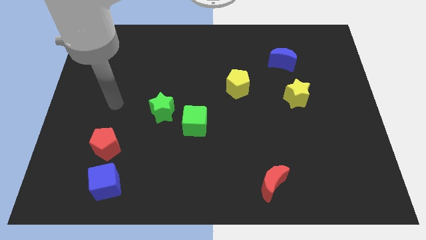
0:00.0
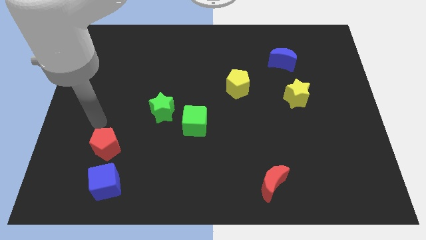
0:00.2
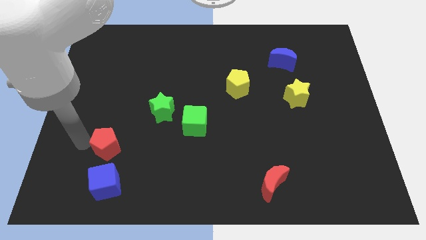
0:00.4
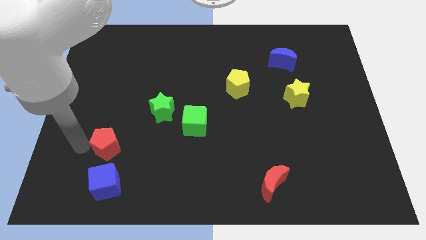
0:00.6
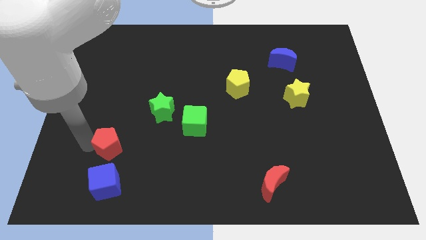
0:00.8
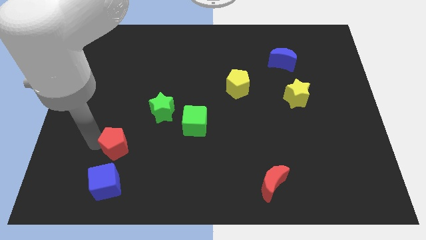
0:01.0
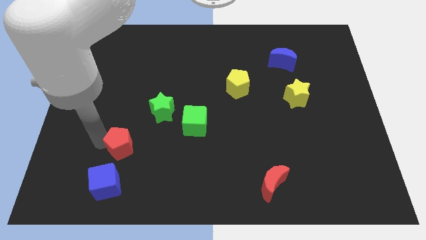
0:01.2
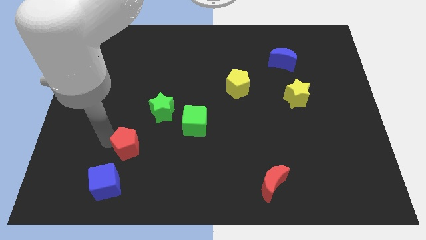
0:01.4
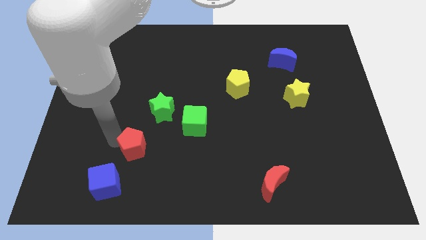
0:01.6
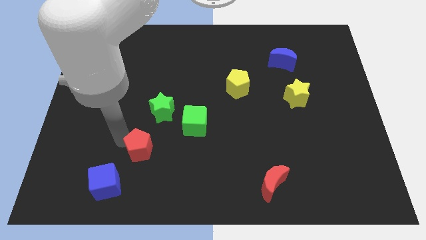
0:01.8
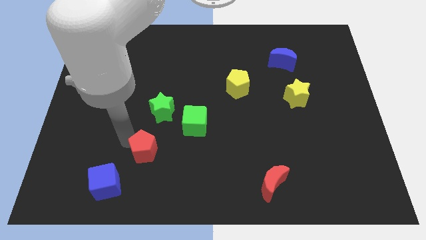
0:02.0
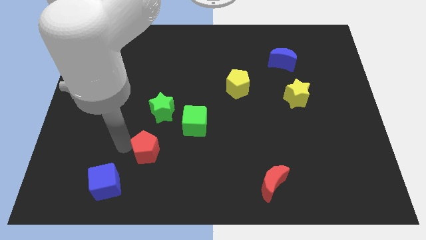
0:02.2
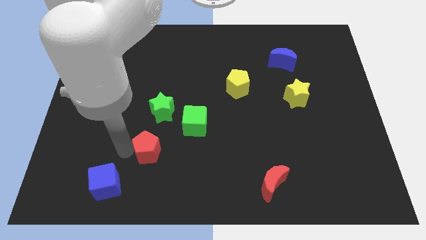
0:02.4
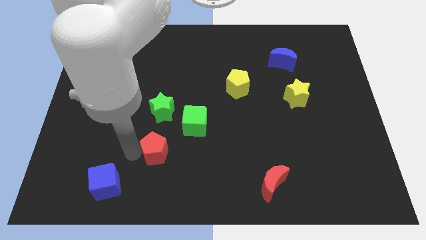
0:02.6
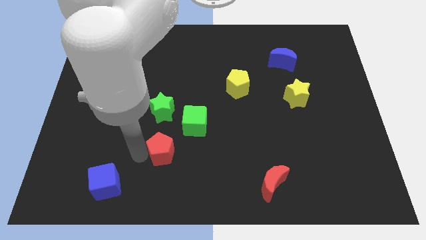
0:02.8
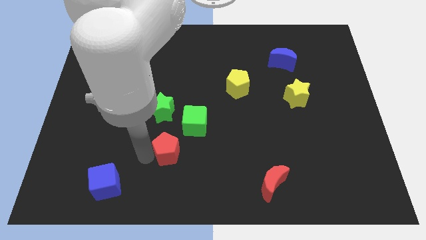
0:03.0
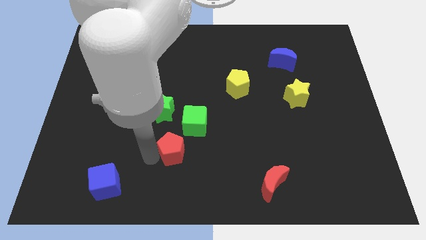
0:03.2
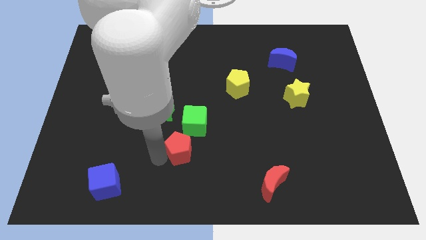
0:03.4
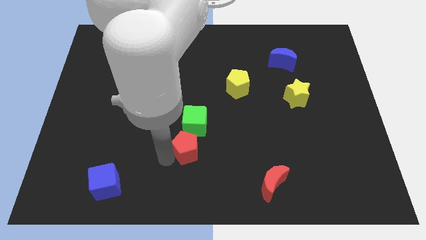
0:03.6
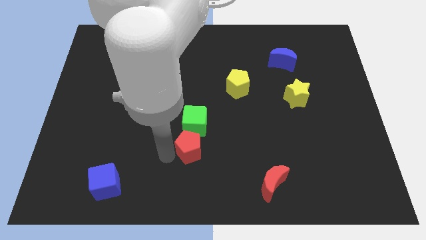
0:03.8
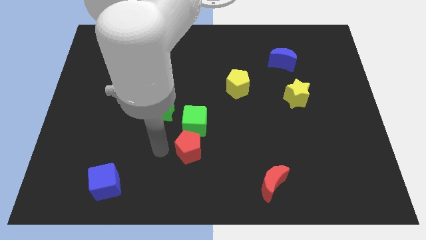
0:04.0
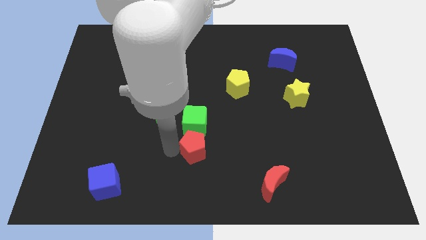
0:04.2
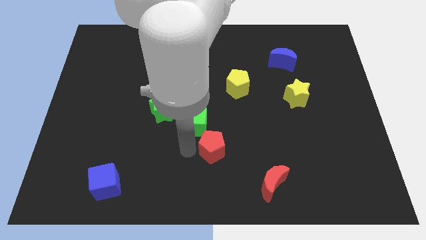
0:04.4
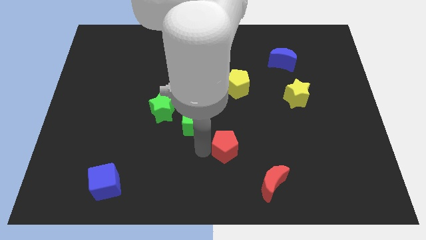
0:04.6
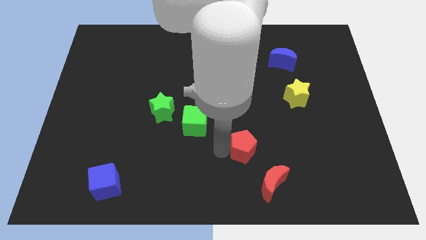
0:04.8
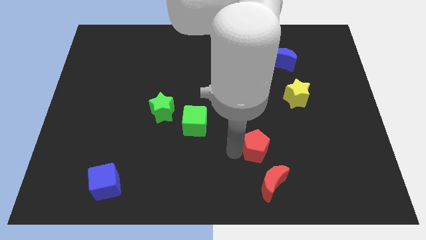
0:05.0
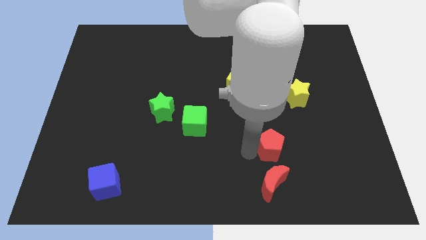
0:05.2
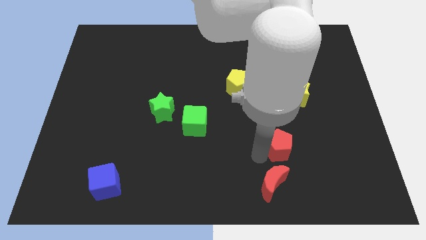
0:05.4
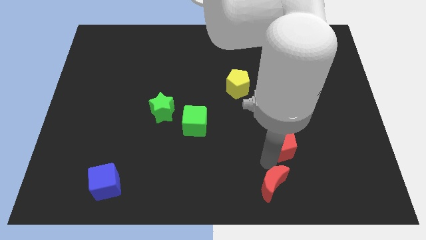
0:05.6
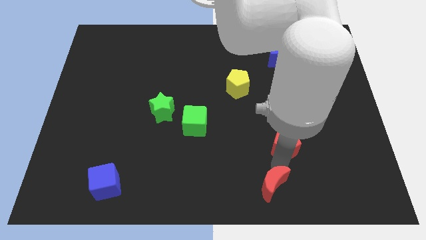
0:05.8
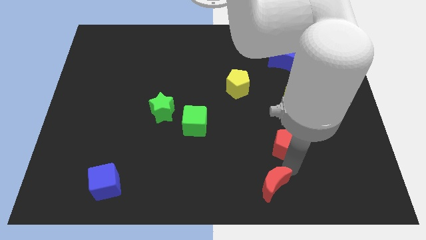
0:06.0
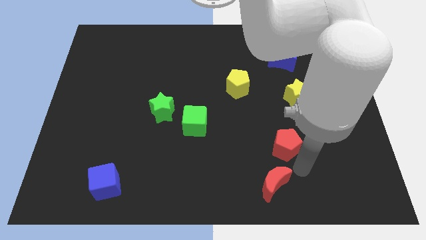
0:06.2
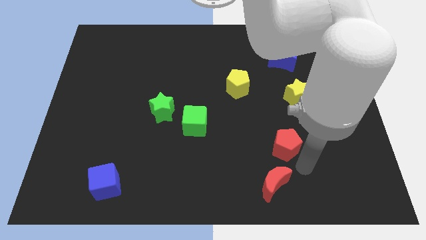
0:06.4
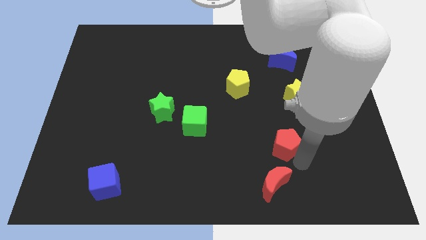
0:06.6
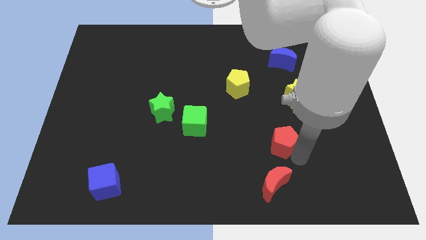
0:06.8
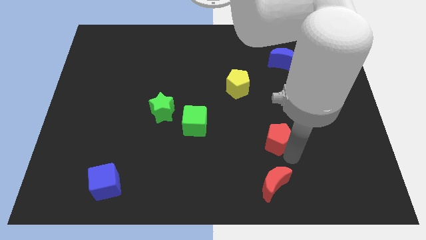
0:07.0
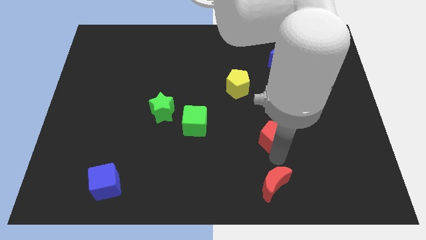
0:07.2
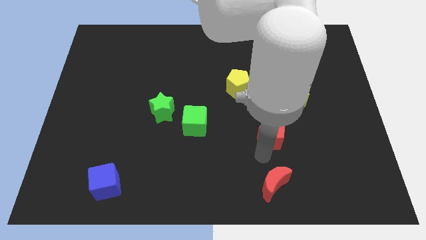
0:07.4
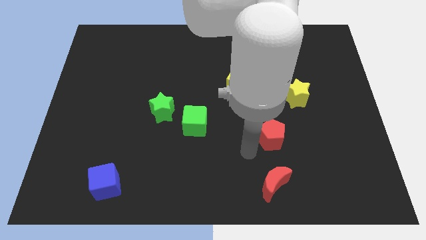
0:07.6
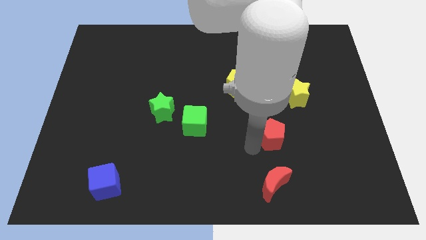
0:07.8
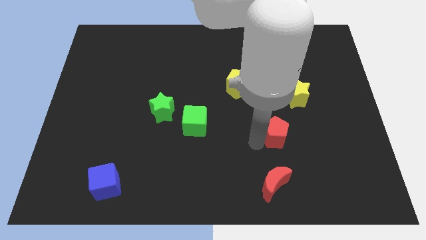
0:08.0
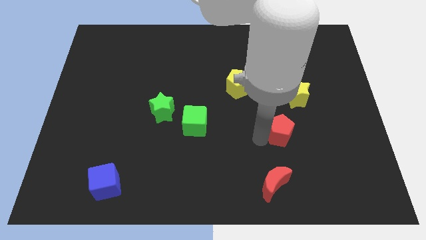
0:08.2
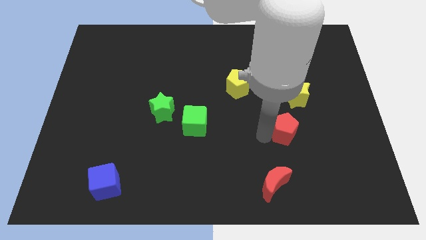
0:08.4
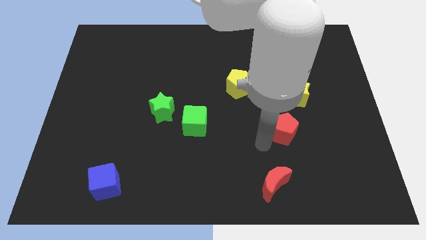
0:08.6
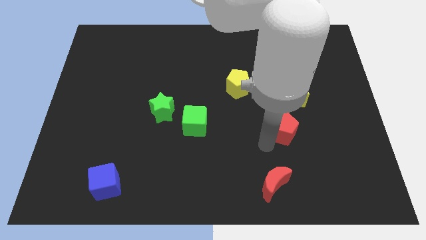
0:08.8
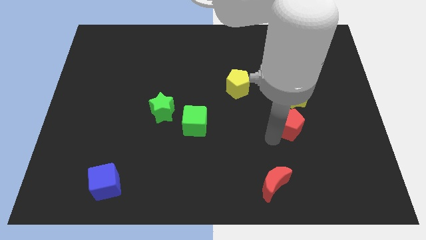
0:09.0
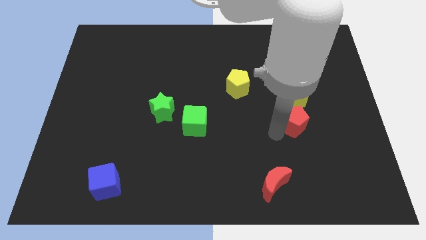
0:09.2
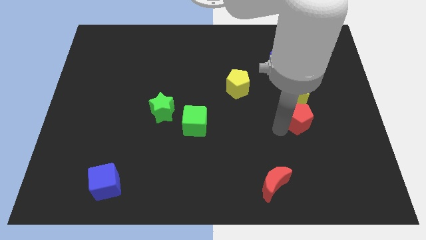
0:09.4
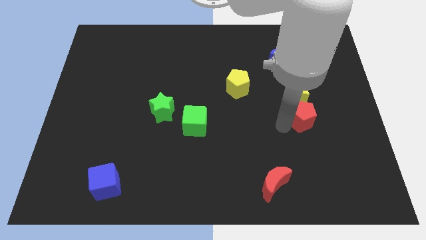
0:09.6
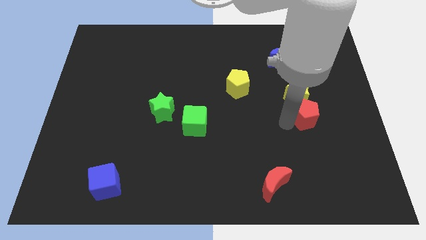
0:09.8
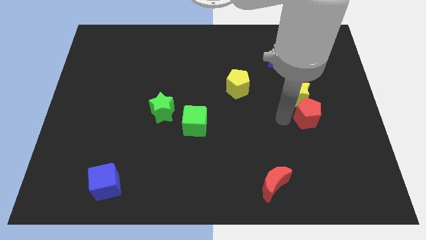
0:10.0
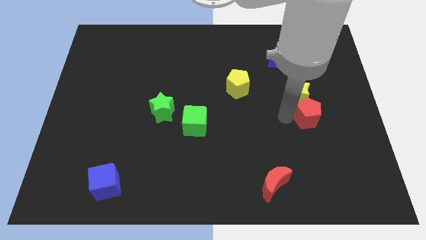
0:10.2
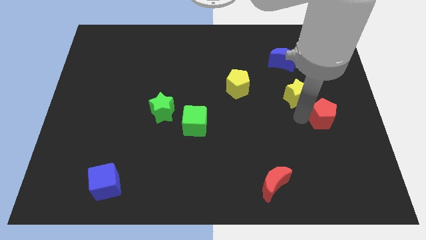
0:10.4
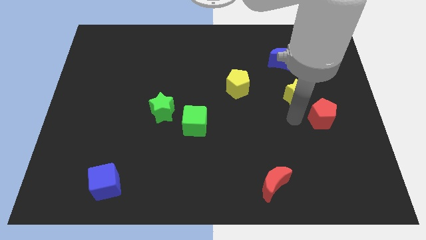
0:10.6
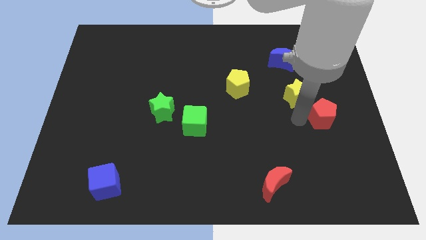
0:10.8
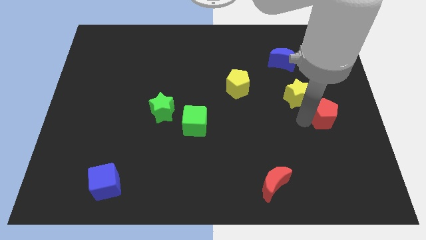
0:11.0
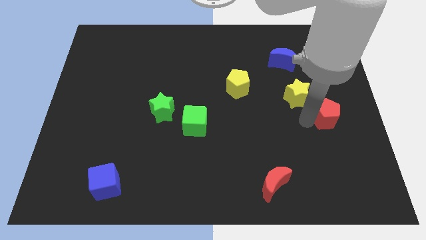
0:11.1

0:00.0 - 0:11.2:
move the red pentagon to the right side of the board

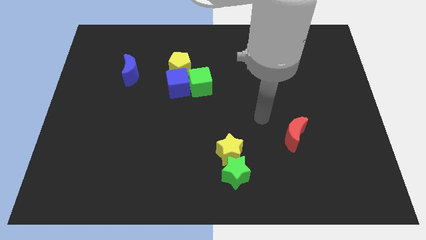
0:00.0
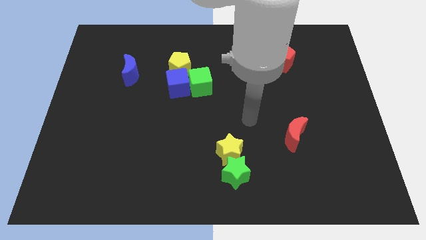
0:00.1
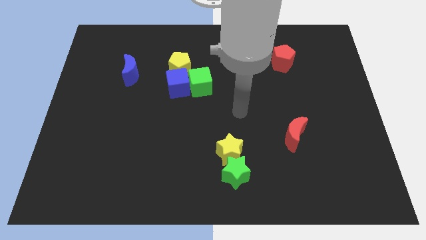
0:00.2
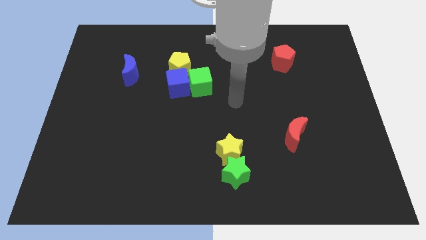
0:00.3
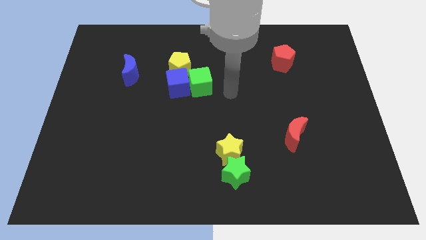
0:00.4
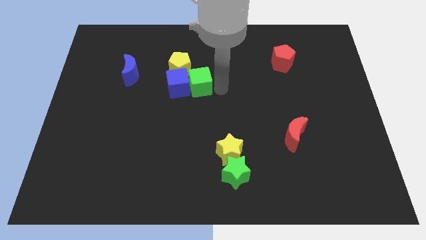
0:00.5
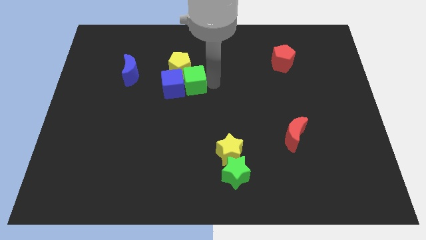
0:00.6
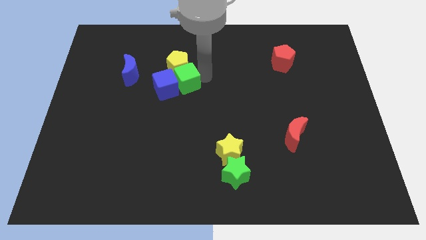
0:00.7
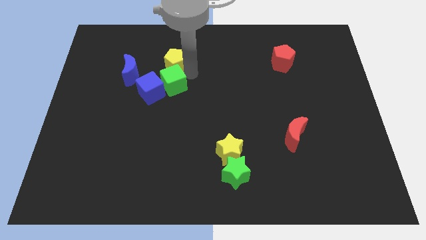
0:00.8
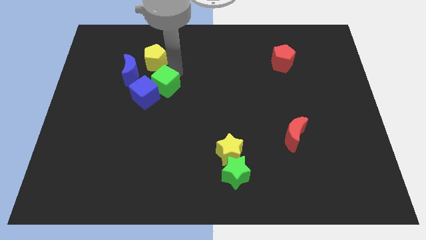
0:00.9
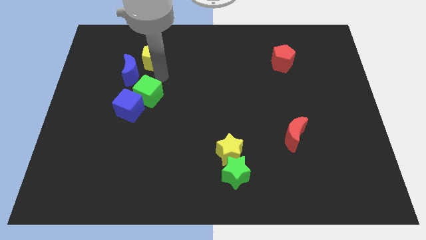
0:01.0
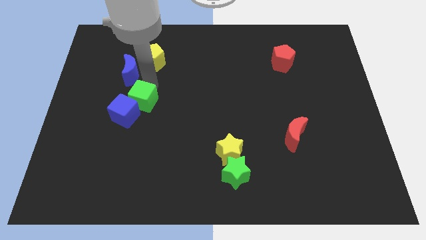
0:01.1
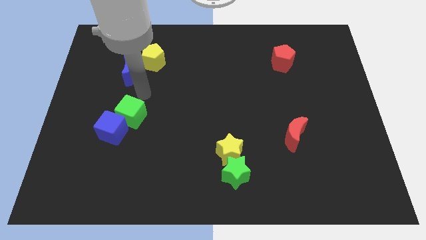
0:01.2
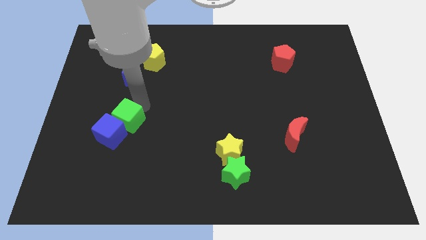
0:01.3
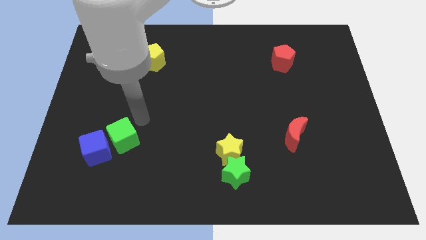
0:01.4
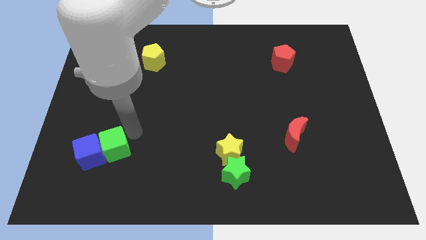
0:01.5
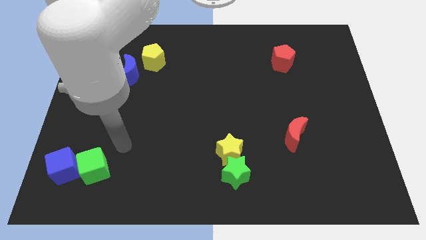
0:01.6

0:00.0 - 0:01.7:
put the blue cube to the lower left corner
